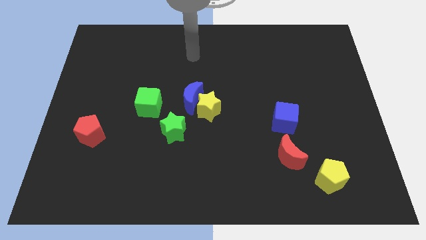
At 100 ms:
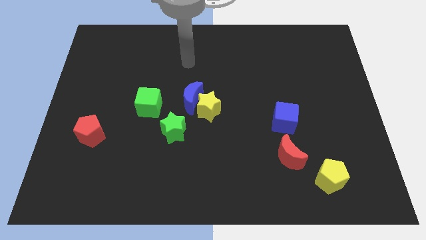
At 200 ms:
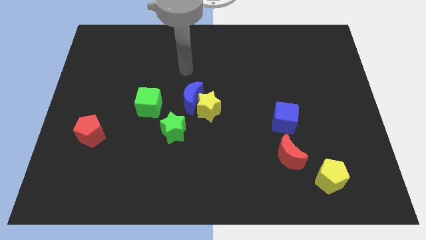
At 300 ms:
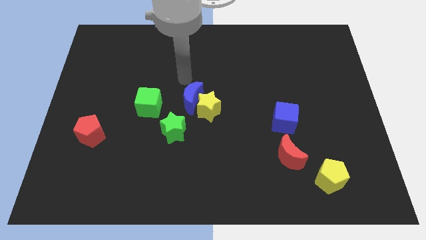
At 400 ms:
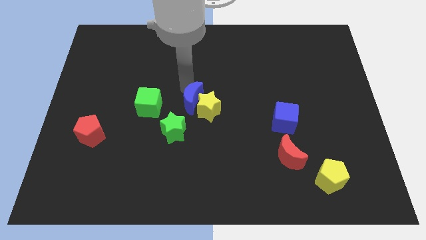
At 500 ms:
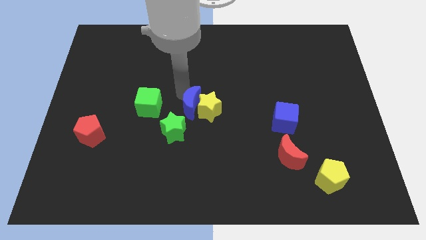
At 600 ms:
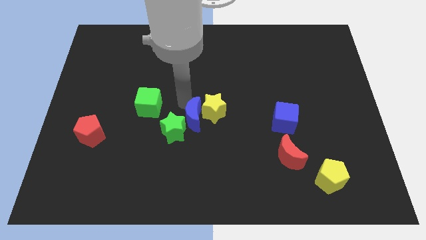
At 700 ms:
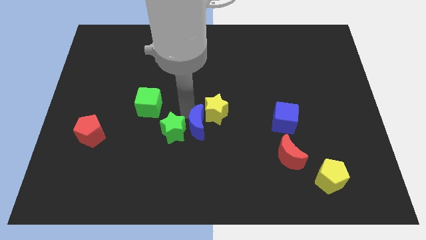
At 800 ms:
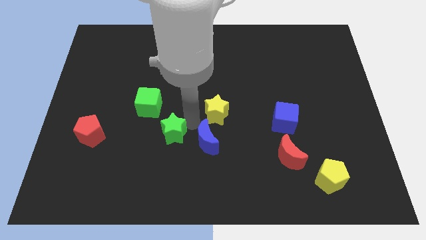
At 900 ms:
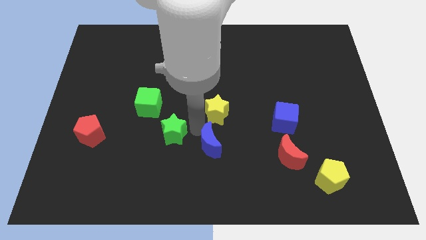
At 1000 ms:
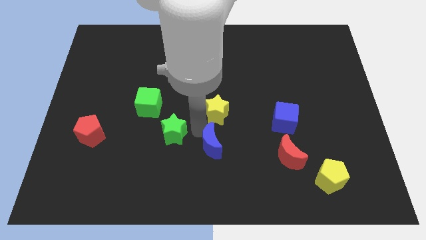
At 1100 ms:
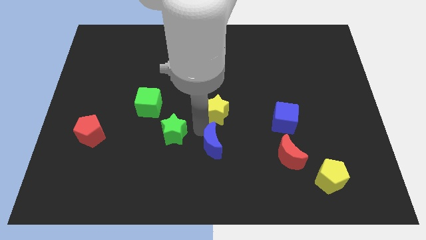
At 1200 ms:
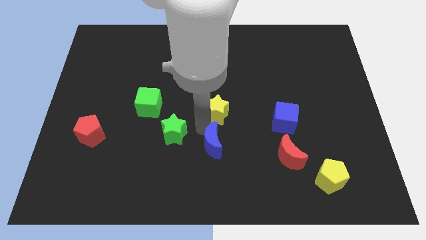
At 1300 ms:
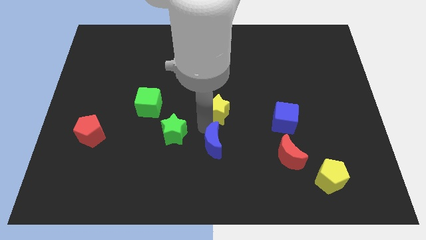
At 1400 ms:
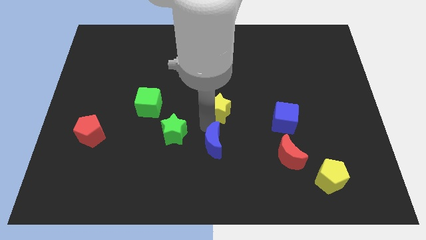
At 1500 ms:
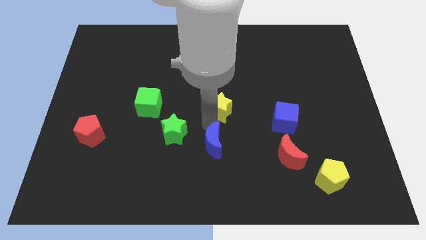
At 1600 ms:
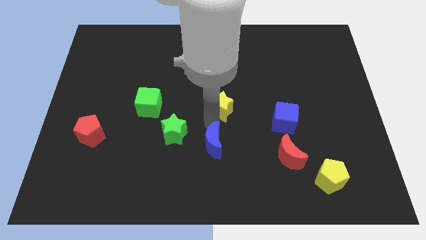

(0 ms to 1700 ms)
move the yellow star away from the blue moon and green star

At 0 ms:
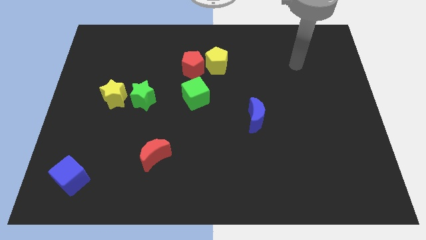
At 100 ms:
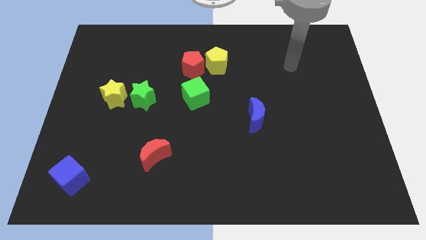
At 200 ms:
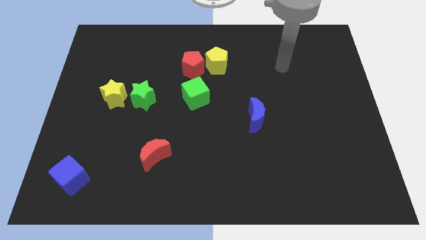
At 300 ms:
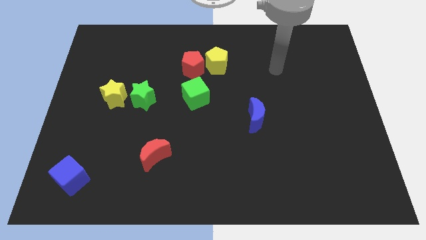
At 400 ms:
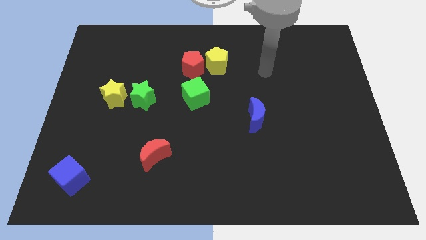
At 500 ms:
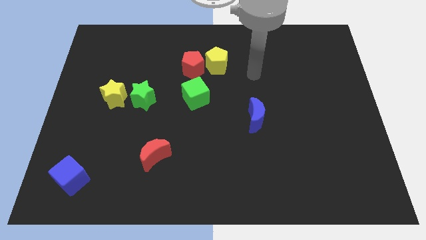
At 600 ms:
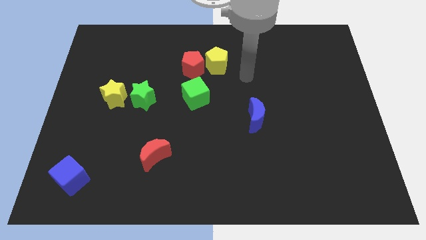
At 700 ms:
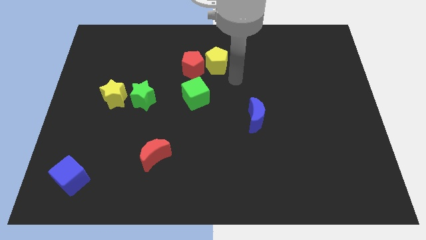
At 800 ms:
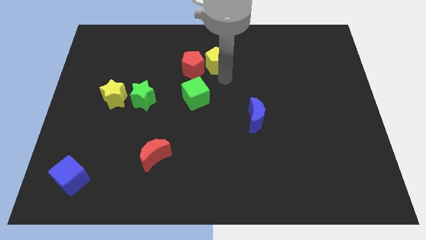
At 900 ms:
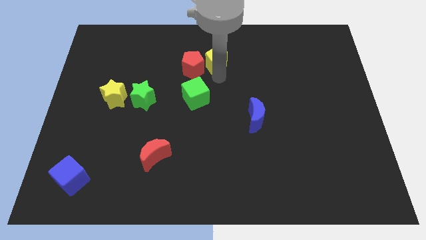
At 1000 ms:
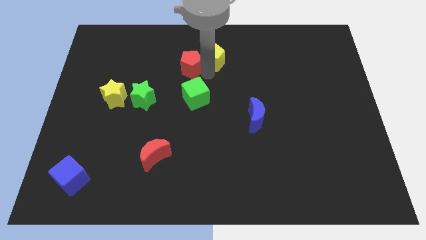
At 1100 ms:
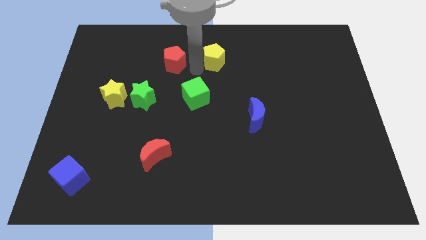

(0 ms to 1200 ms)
pull the yellow pentagon apart from the red pentagon

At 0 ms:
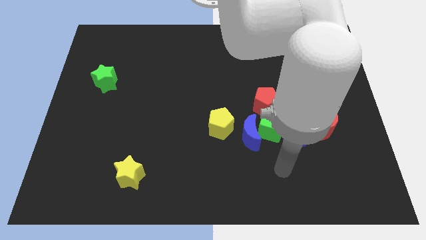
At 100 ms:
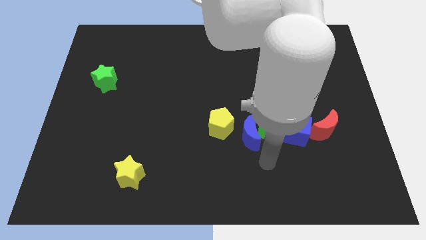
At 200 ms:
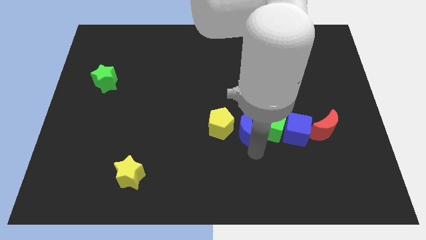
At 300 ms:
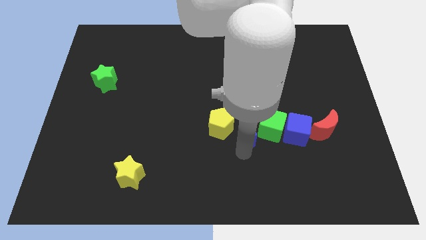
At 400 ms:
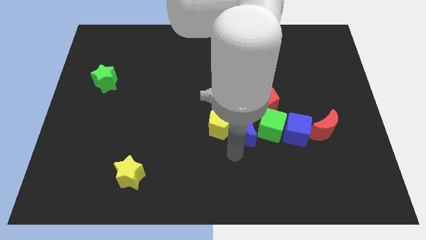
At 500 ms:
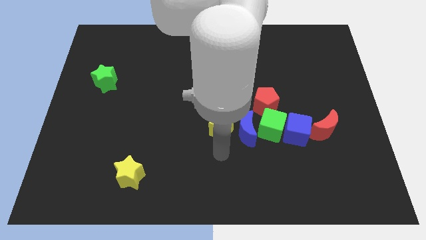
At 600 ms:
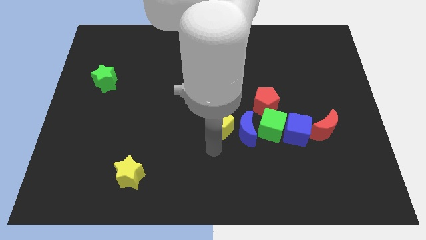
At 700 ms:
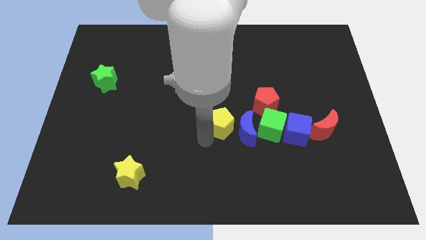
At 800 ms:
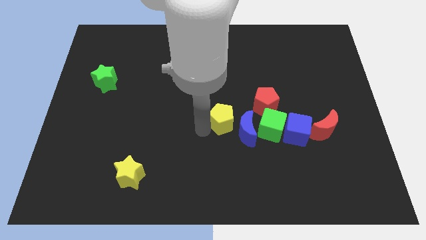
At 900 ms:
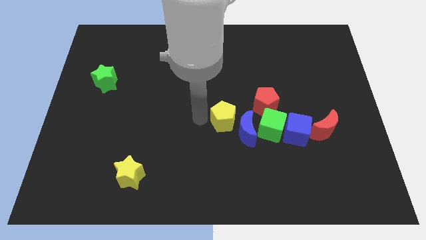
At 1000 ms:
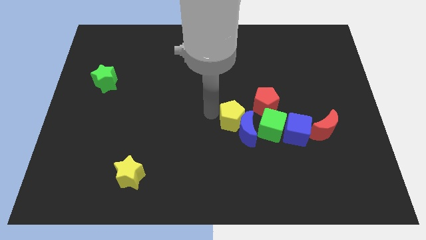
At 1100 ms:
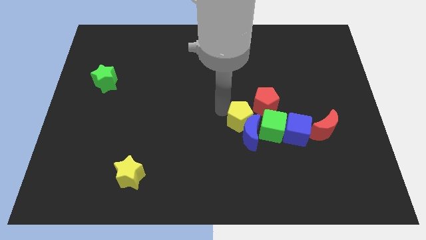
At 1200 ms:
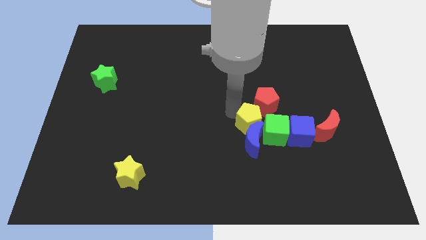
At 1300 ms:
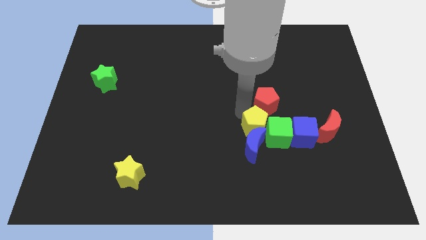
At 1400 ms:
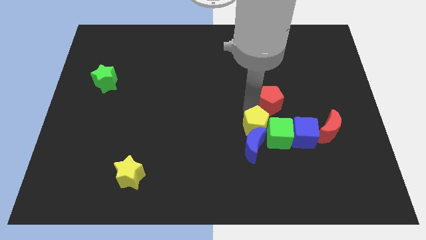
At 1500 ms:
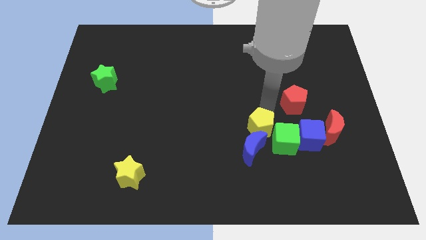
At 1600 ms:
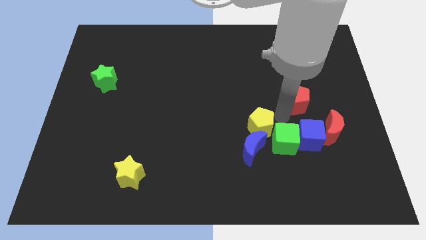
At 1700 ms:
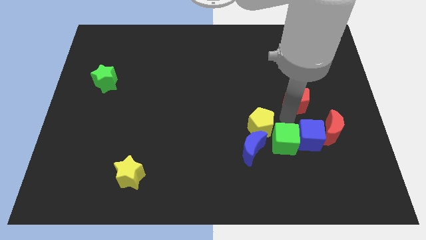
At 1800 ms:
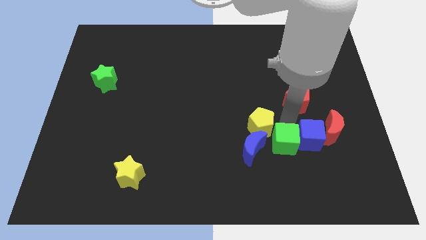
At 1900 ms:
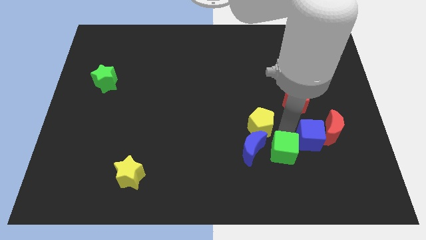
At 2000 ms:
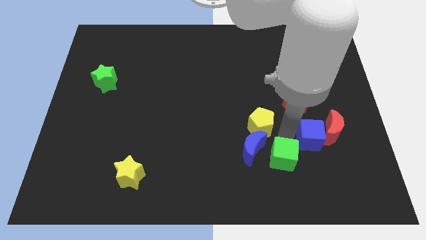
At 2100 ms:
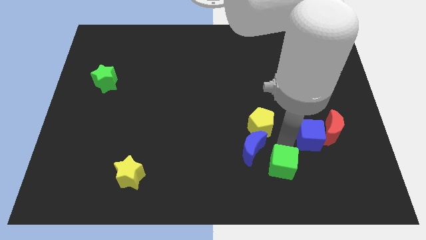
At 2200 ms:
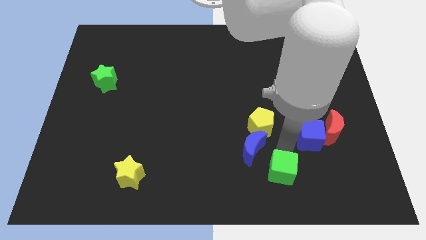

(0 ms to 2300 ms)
pull the green cube apart from the blue moon, blue cube, and red pentagon

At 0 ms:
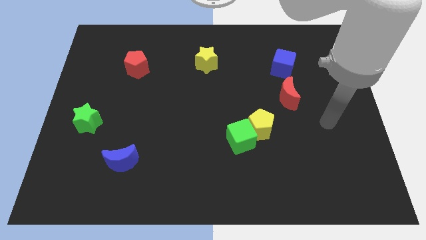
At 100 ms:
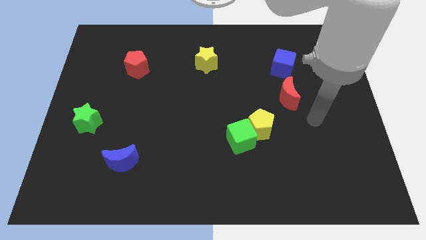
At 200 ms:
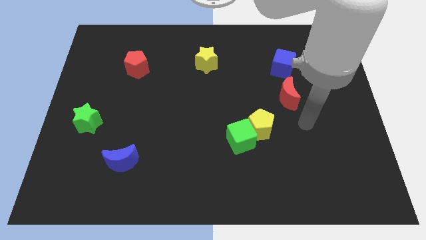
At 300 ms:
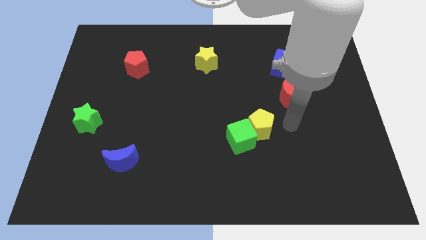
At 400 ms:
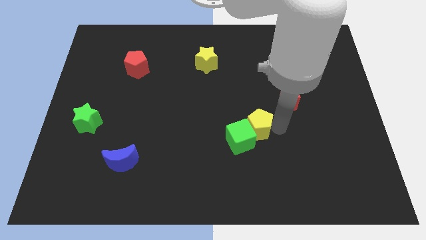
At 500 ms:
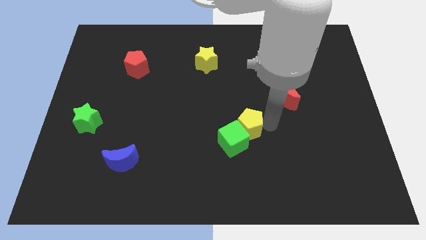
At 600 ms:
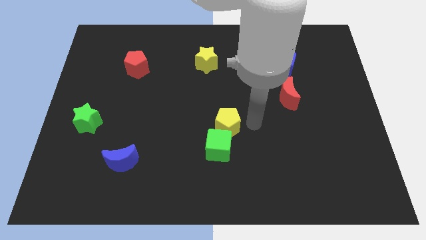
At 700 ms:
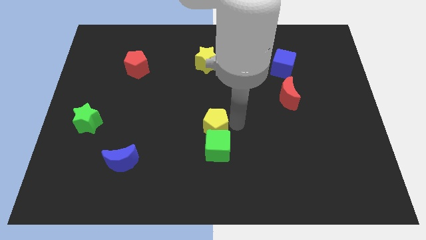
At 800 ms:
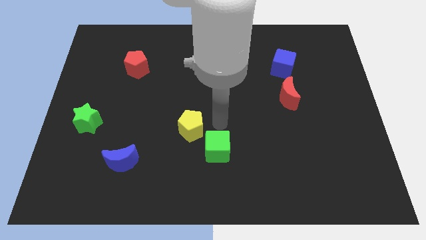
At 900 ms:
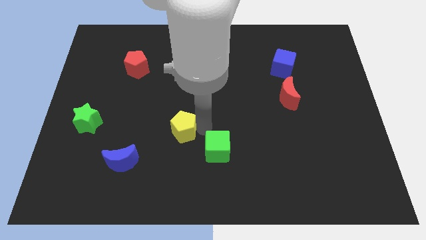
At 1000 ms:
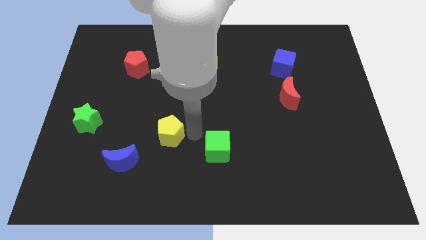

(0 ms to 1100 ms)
separate the green cube from the yellow pentagon

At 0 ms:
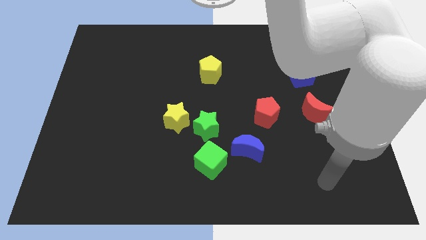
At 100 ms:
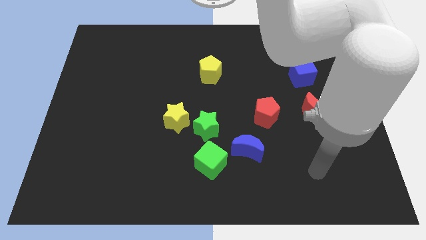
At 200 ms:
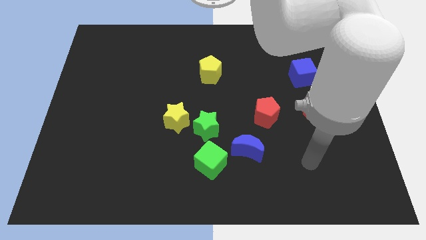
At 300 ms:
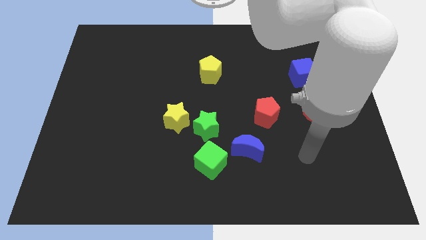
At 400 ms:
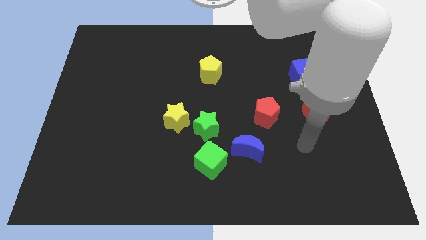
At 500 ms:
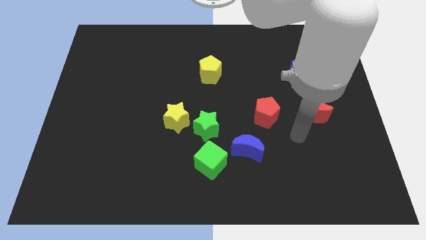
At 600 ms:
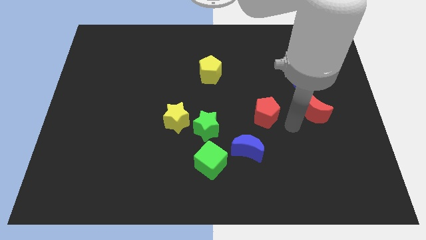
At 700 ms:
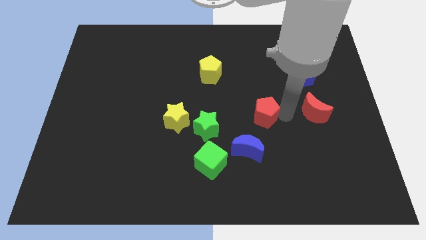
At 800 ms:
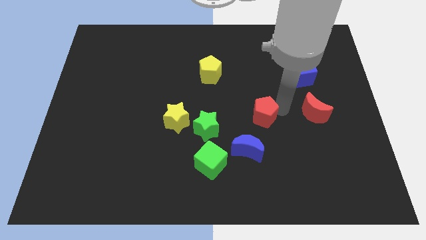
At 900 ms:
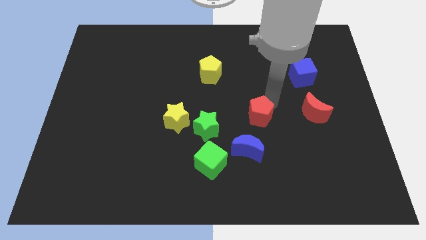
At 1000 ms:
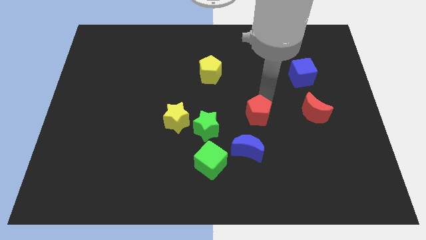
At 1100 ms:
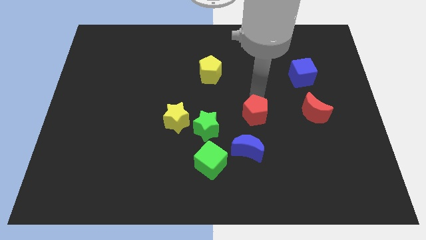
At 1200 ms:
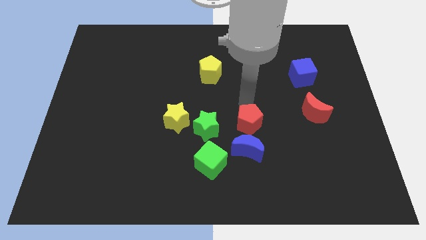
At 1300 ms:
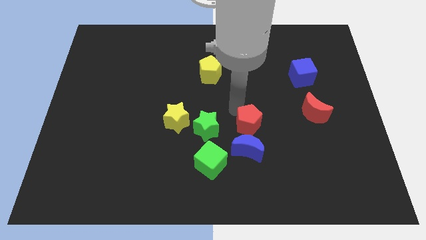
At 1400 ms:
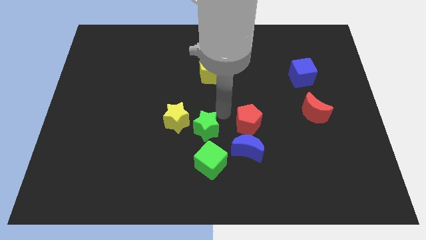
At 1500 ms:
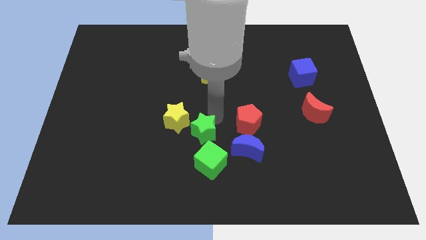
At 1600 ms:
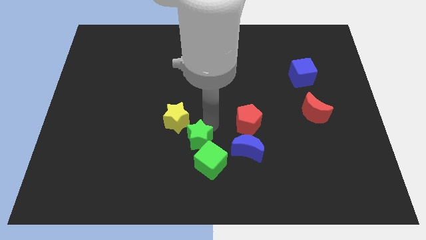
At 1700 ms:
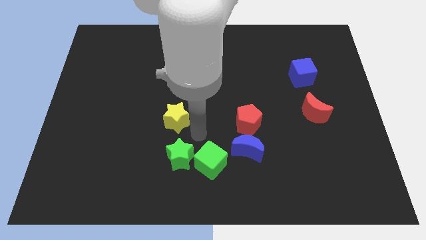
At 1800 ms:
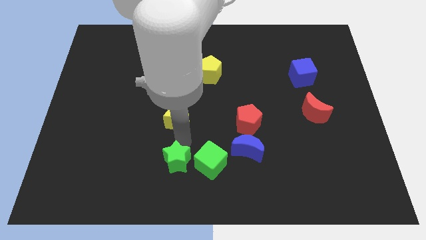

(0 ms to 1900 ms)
move the yellow star away from the green star

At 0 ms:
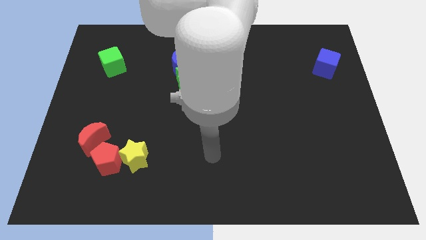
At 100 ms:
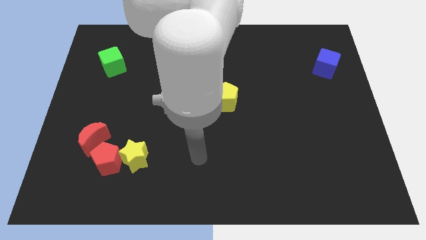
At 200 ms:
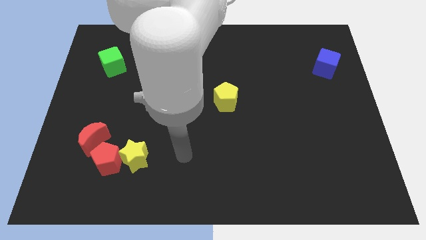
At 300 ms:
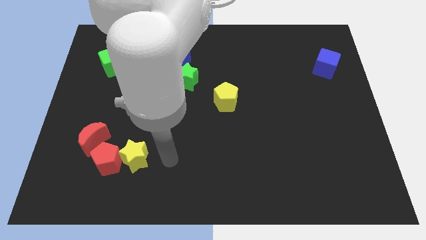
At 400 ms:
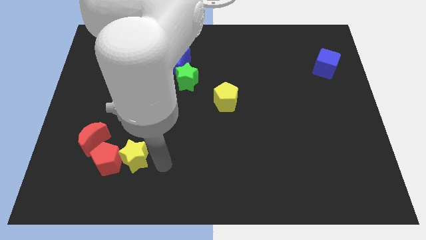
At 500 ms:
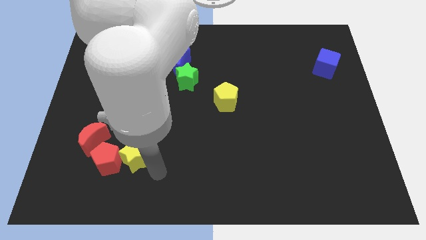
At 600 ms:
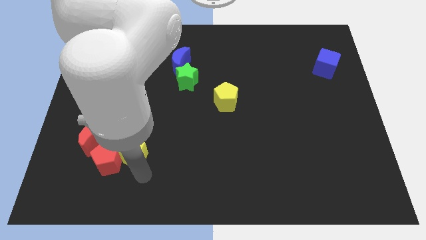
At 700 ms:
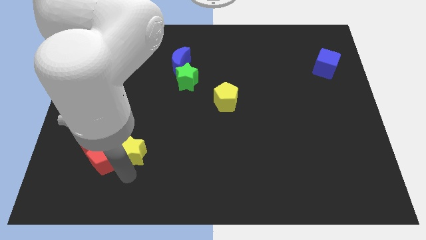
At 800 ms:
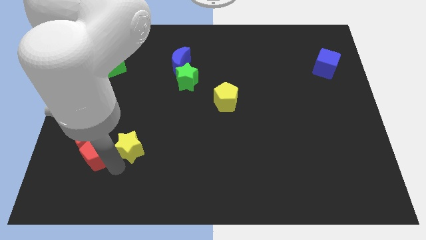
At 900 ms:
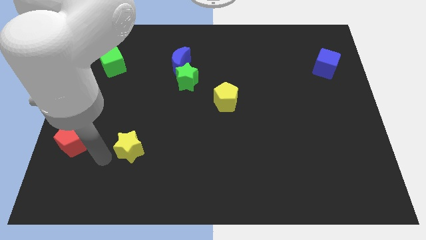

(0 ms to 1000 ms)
separate the yellow star from the red pentagon

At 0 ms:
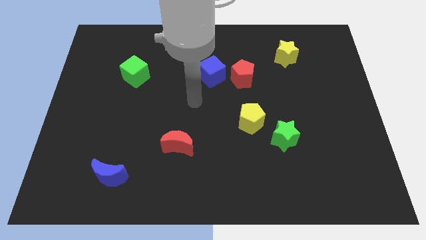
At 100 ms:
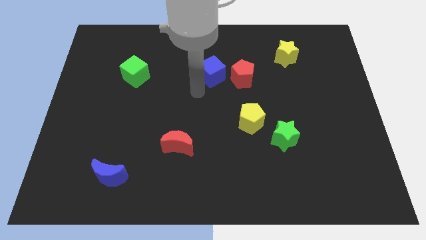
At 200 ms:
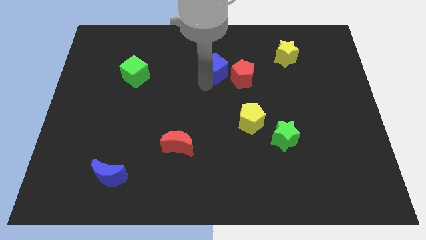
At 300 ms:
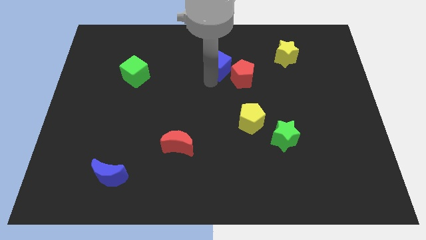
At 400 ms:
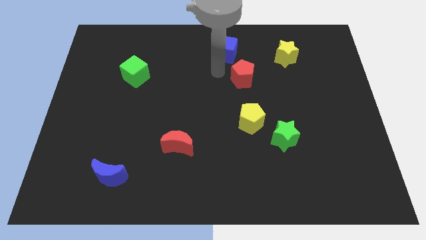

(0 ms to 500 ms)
move the red pentagon away from the blue cube
